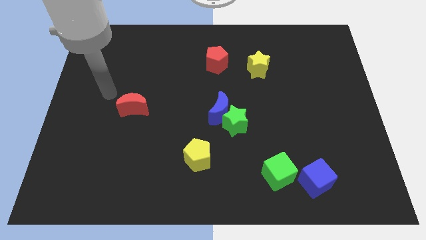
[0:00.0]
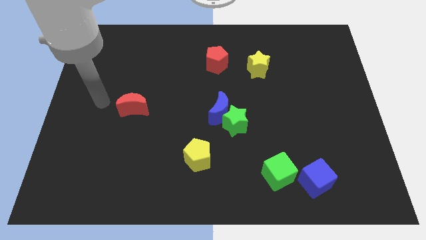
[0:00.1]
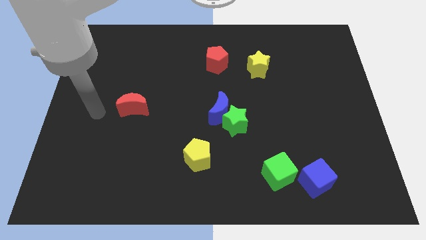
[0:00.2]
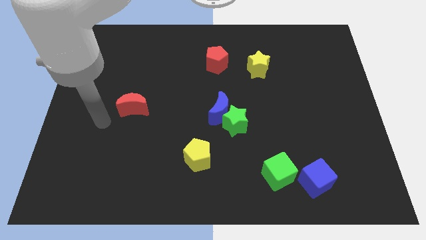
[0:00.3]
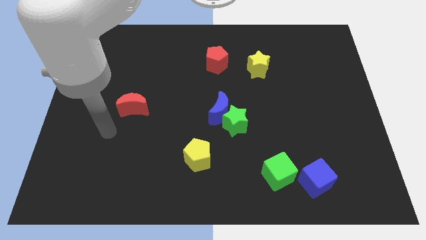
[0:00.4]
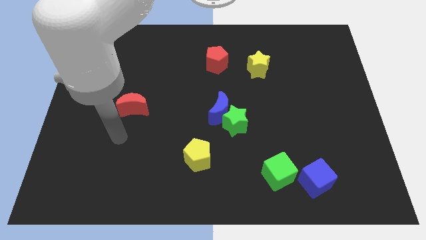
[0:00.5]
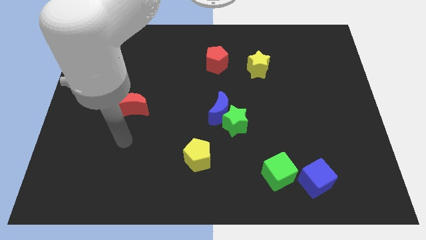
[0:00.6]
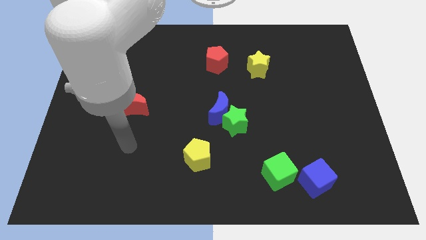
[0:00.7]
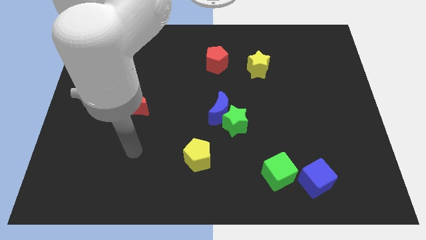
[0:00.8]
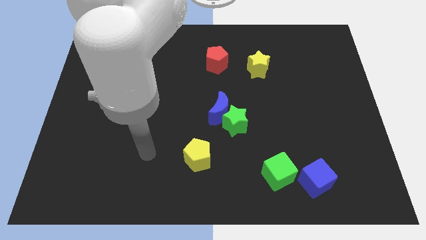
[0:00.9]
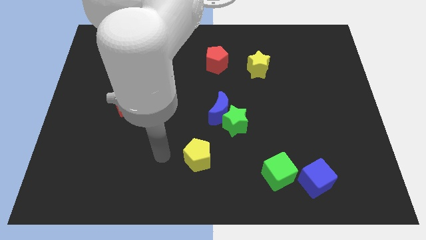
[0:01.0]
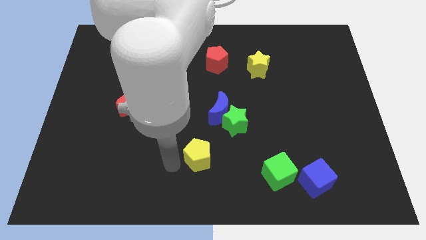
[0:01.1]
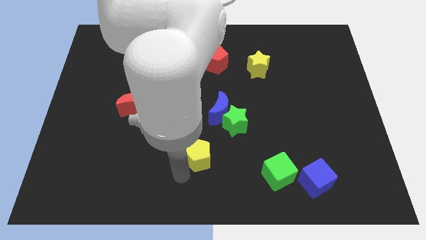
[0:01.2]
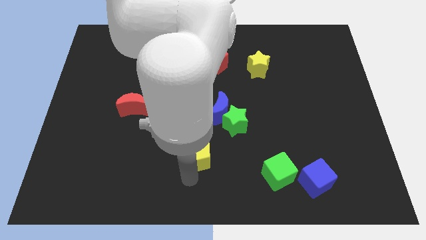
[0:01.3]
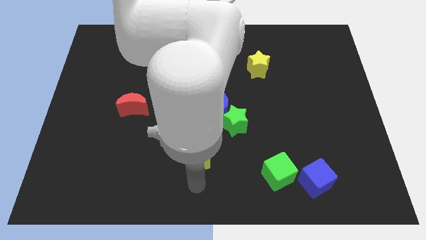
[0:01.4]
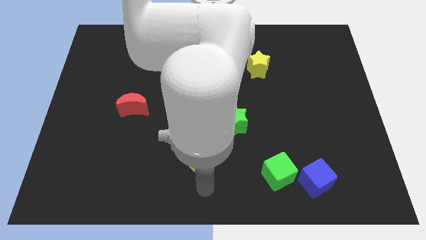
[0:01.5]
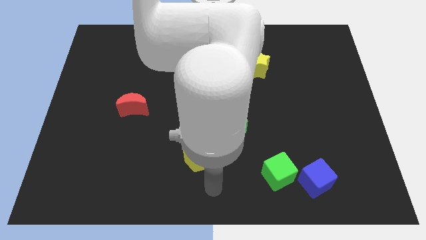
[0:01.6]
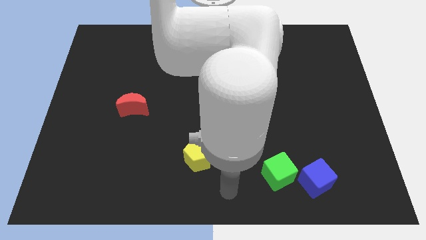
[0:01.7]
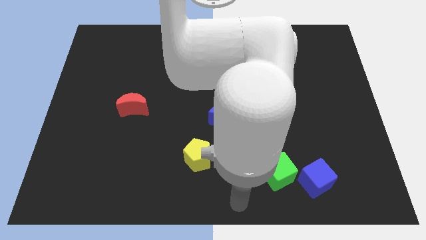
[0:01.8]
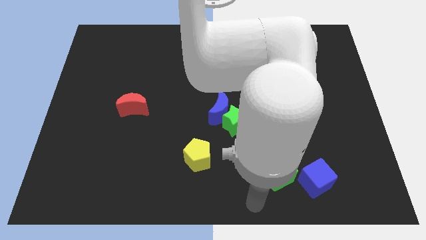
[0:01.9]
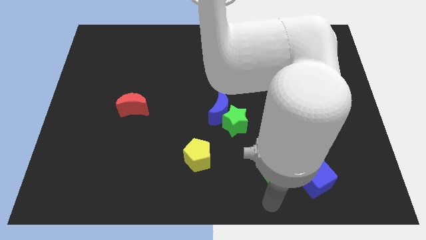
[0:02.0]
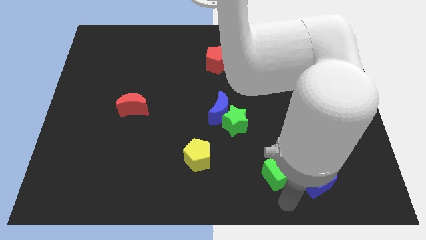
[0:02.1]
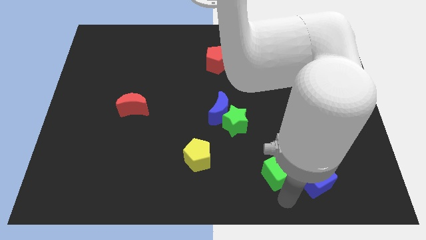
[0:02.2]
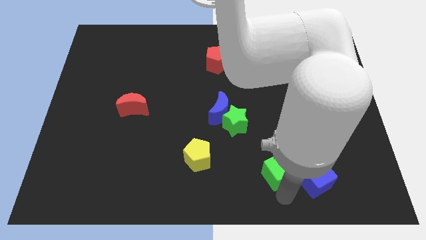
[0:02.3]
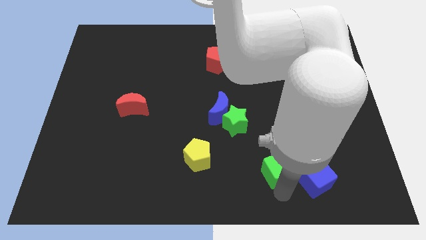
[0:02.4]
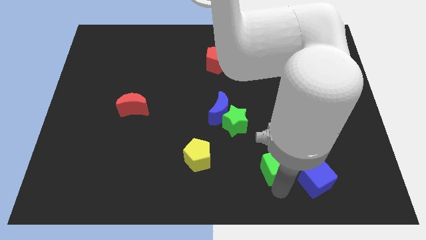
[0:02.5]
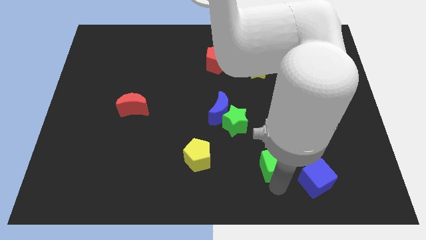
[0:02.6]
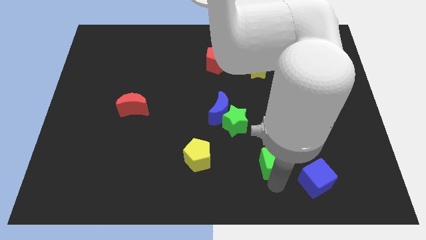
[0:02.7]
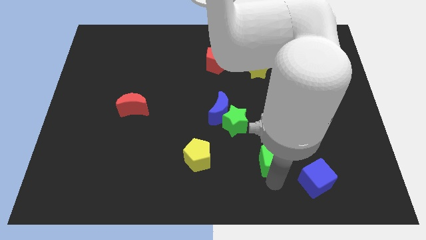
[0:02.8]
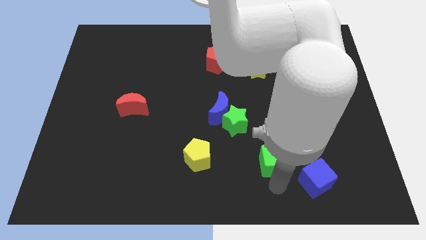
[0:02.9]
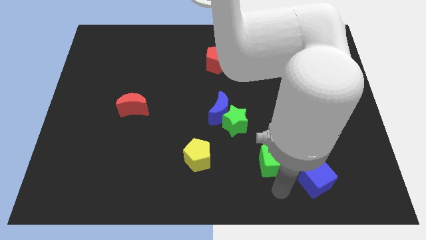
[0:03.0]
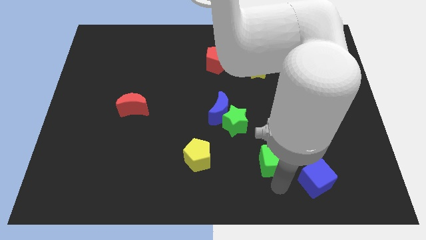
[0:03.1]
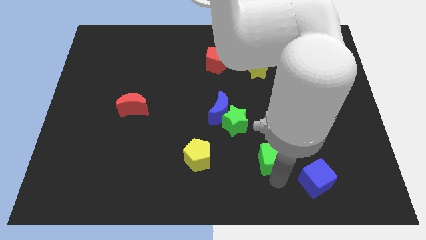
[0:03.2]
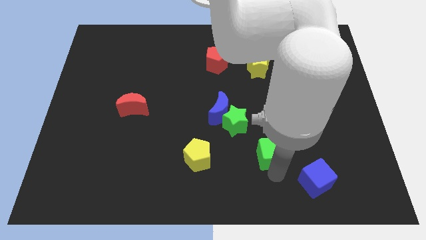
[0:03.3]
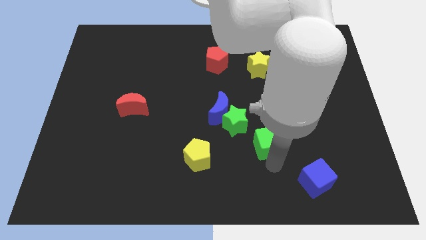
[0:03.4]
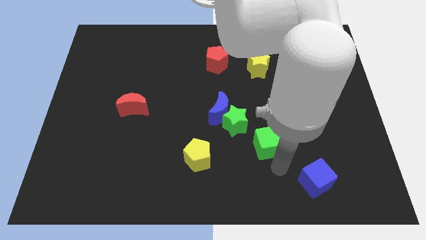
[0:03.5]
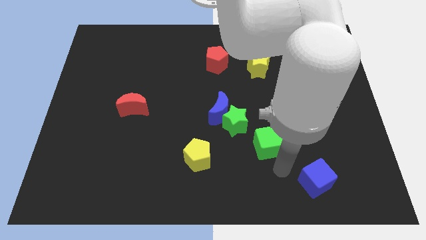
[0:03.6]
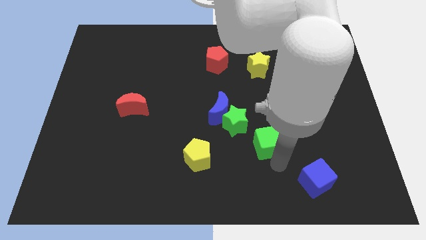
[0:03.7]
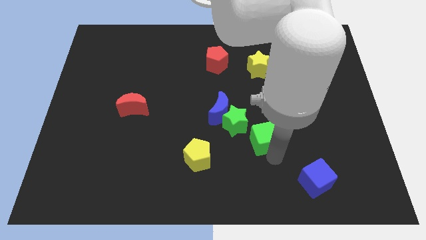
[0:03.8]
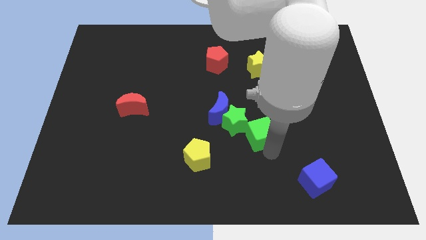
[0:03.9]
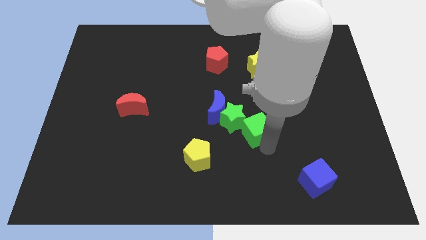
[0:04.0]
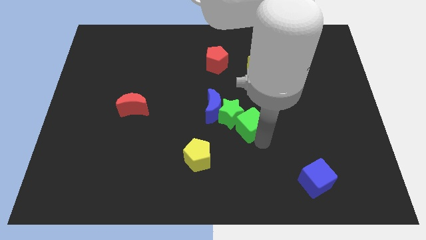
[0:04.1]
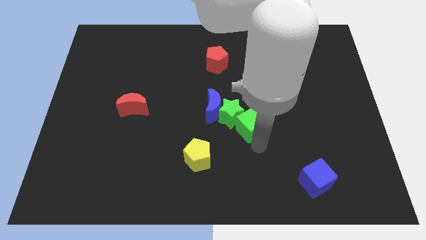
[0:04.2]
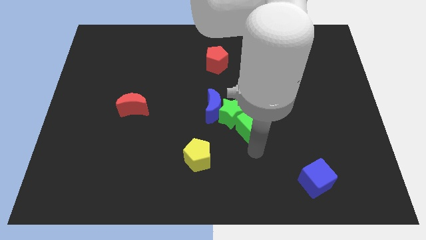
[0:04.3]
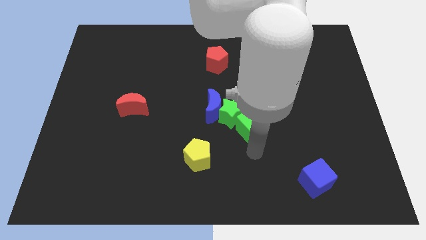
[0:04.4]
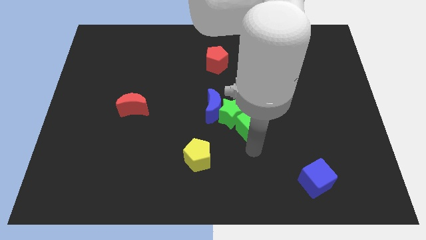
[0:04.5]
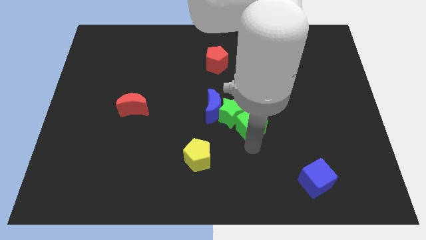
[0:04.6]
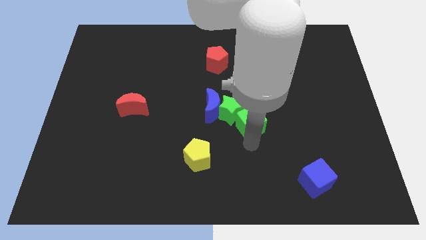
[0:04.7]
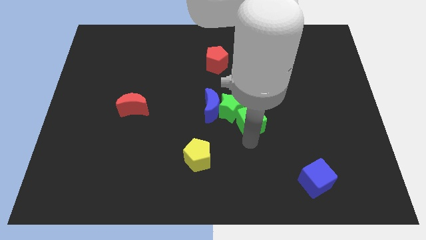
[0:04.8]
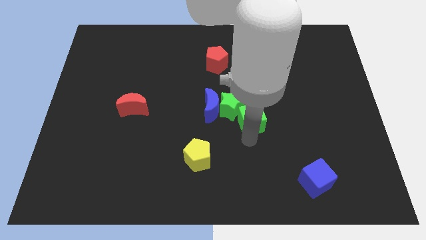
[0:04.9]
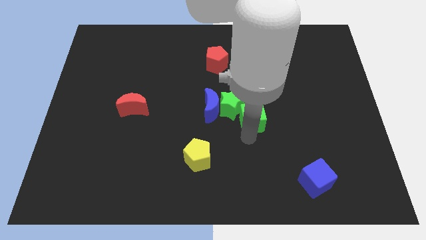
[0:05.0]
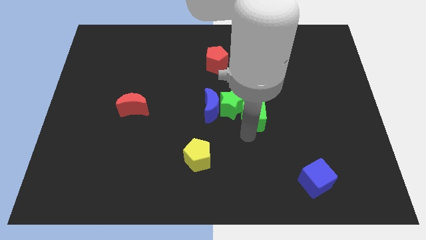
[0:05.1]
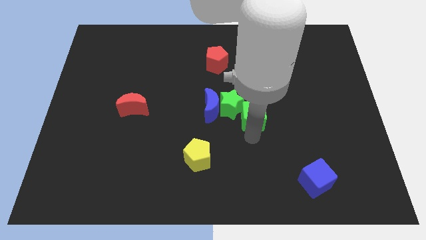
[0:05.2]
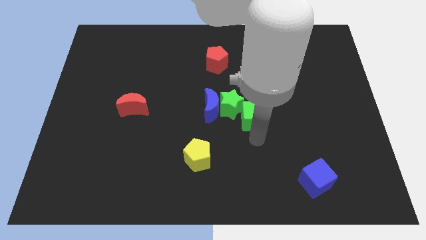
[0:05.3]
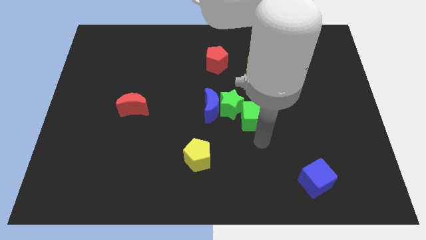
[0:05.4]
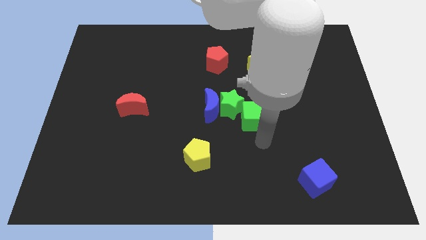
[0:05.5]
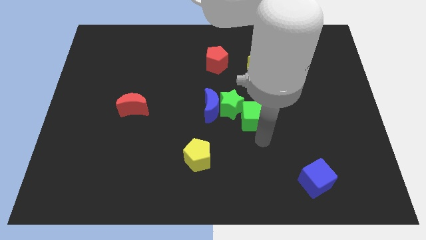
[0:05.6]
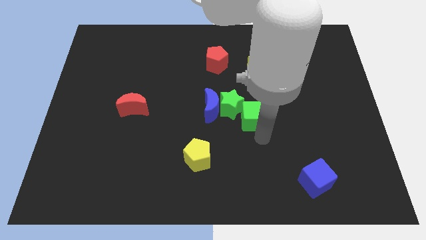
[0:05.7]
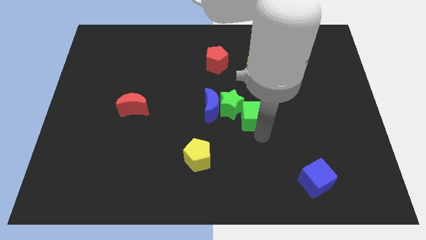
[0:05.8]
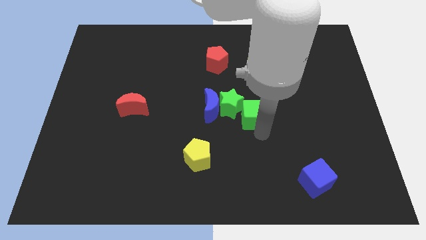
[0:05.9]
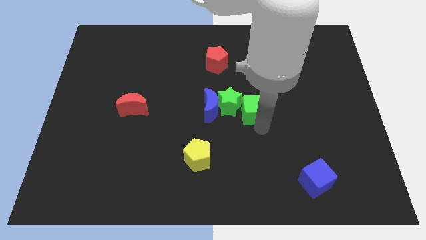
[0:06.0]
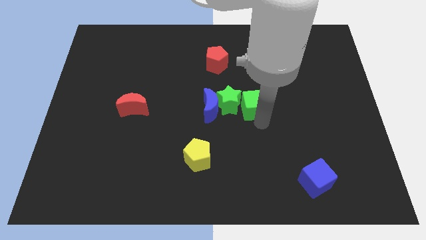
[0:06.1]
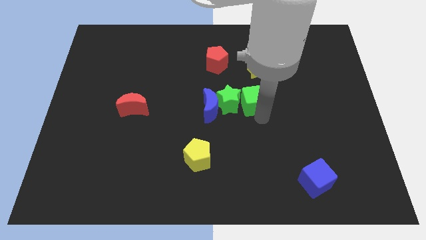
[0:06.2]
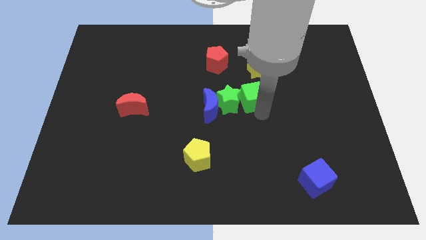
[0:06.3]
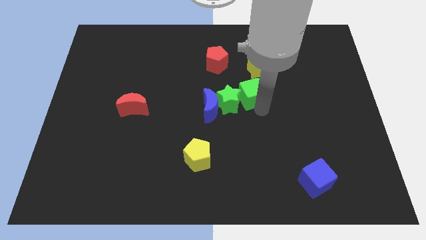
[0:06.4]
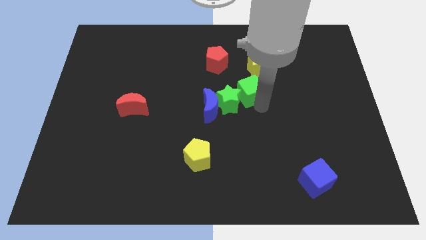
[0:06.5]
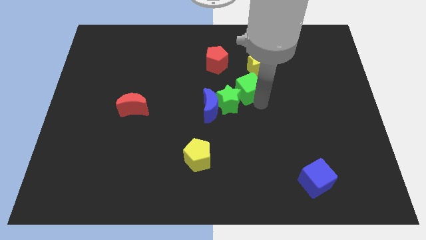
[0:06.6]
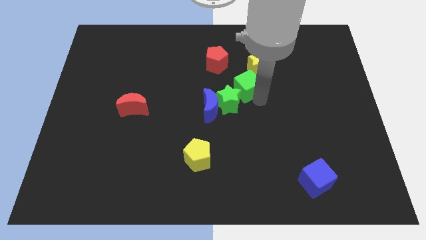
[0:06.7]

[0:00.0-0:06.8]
put the green cube above the green star

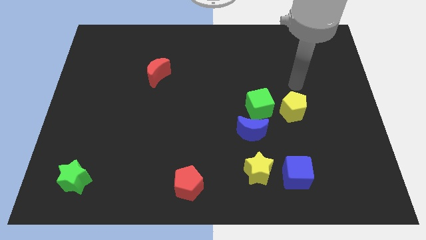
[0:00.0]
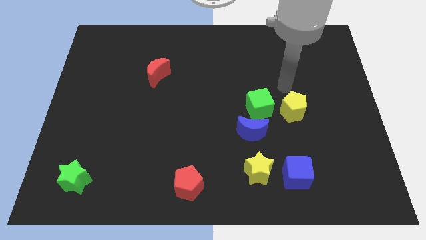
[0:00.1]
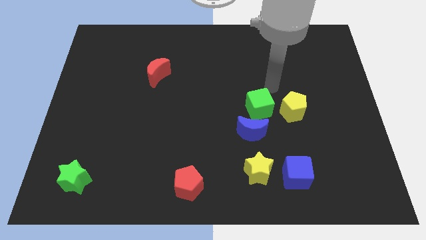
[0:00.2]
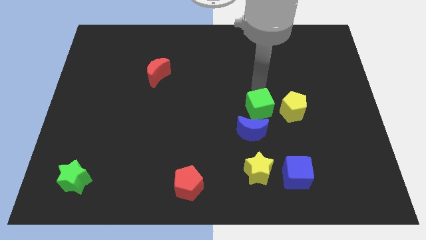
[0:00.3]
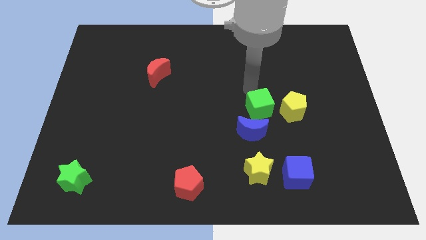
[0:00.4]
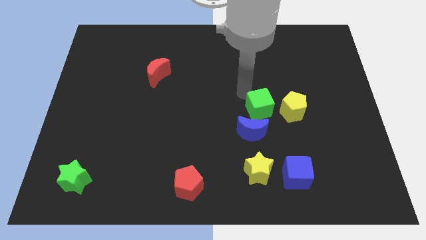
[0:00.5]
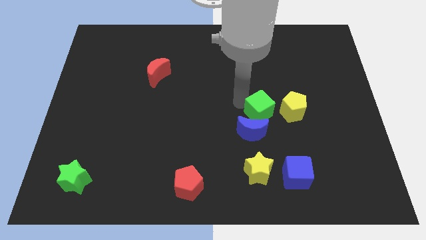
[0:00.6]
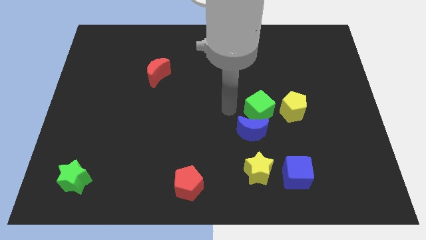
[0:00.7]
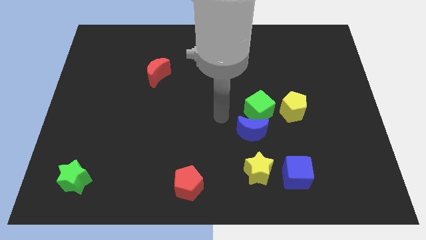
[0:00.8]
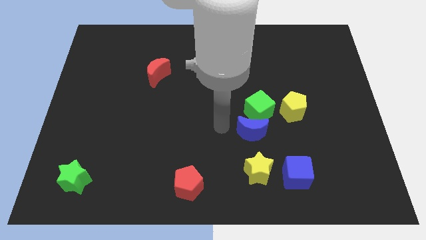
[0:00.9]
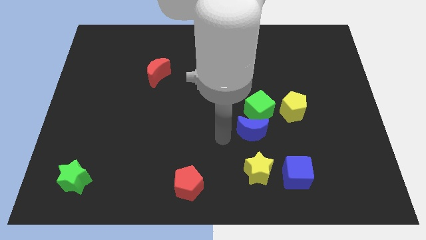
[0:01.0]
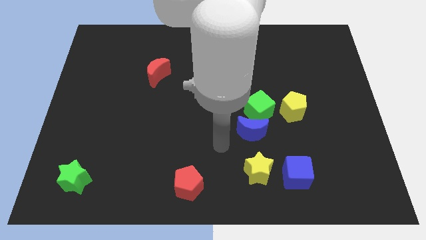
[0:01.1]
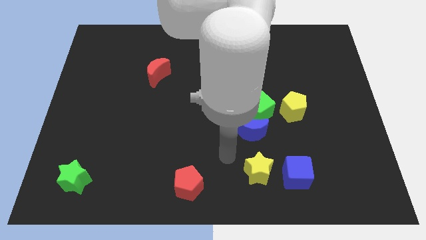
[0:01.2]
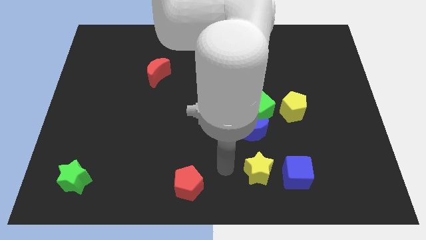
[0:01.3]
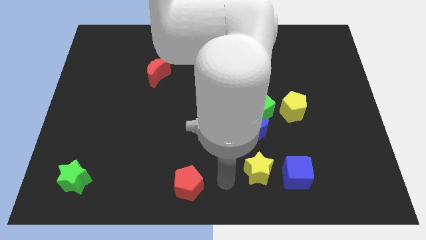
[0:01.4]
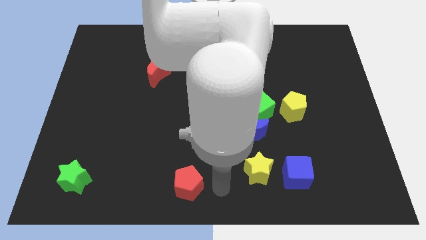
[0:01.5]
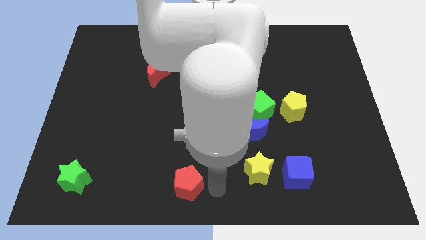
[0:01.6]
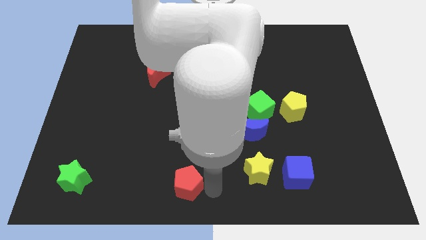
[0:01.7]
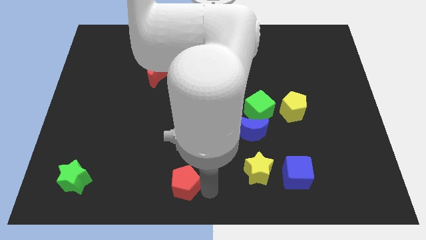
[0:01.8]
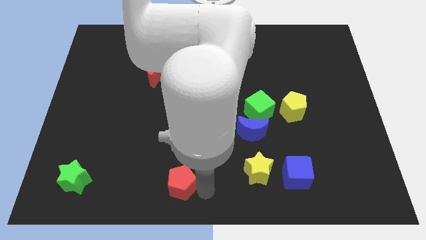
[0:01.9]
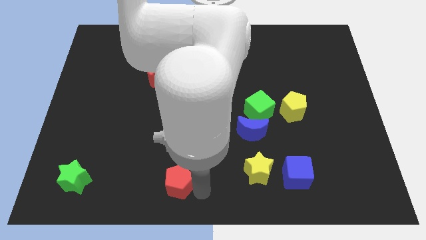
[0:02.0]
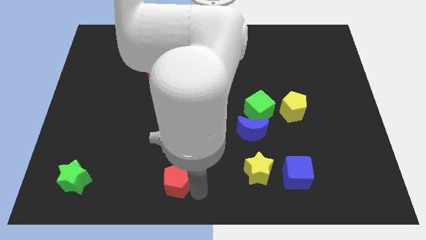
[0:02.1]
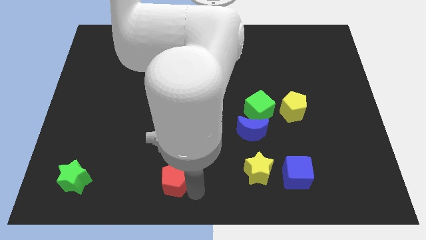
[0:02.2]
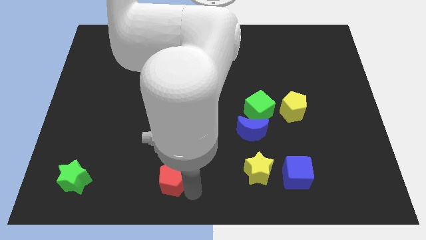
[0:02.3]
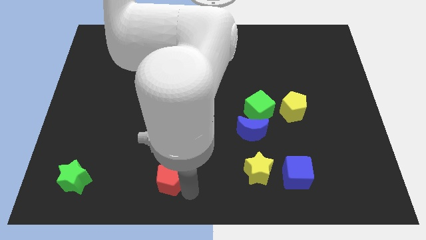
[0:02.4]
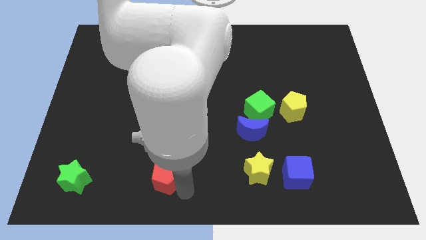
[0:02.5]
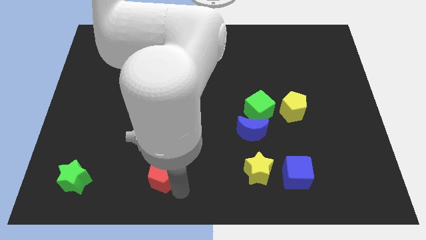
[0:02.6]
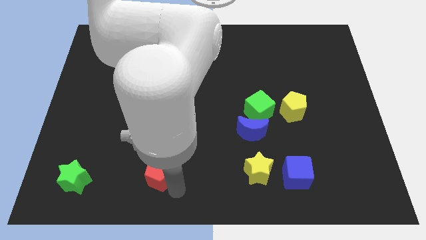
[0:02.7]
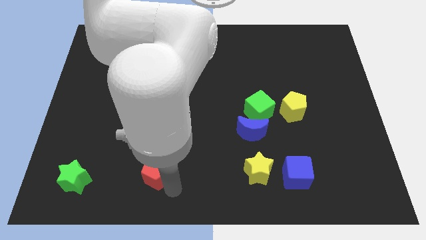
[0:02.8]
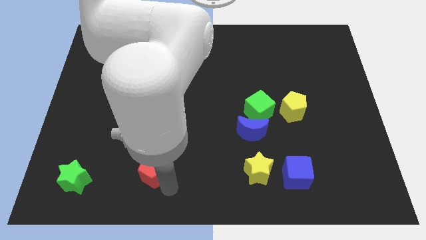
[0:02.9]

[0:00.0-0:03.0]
put the red pentagon right of the green star
